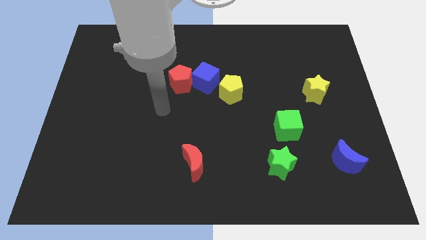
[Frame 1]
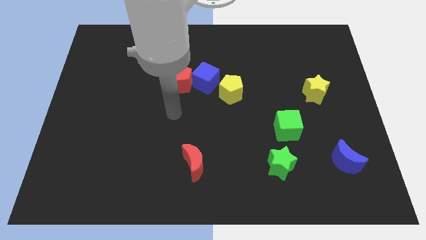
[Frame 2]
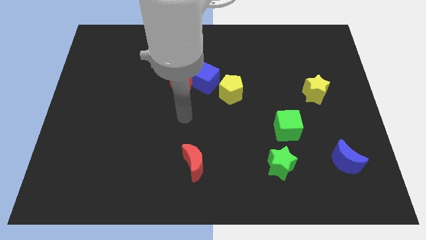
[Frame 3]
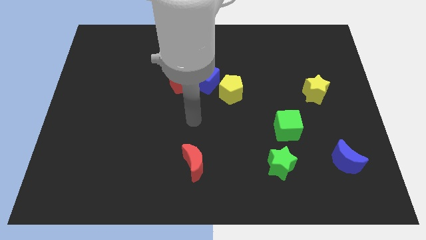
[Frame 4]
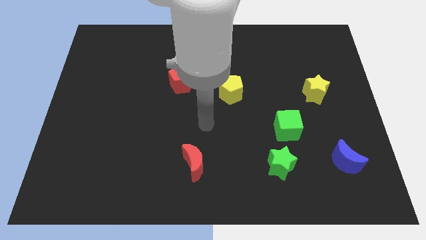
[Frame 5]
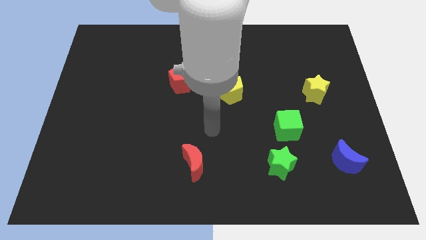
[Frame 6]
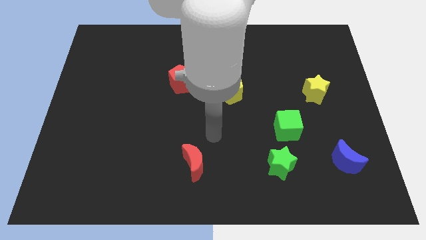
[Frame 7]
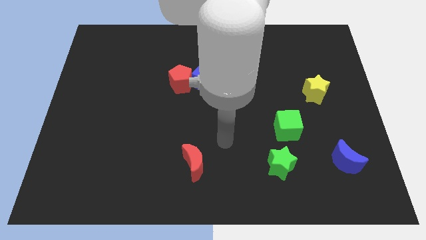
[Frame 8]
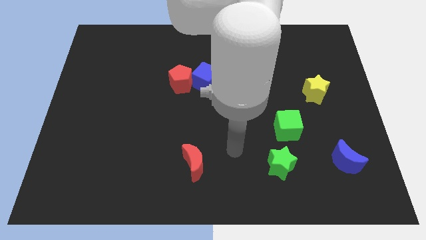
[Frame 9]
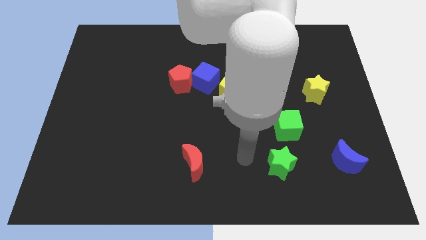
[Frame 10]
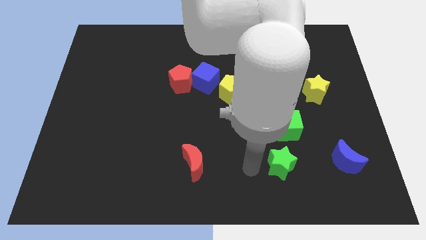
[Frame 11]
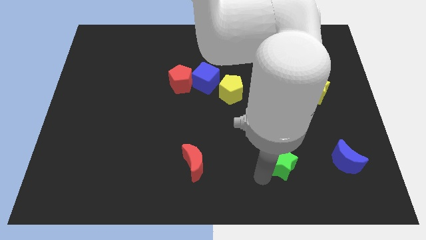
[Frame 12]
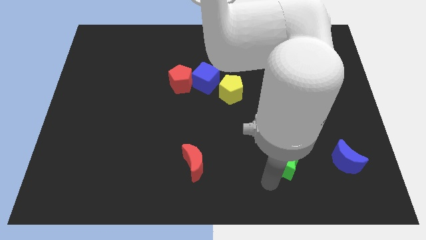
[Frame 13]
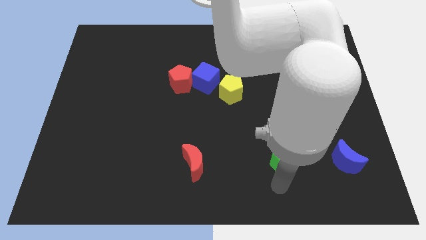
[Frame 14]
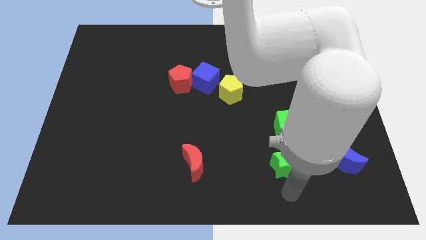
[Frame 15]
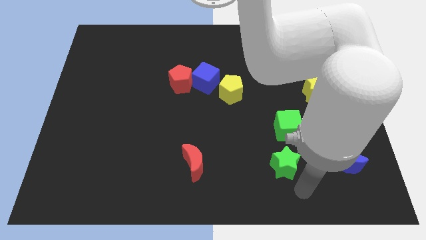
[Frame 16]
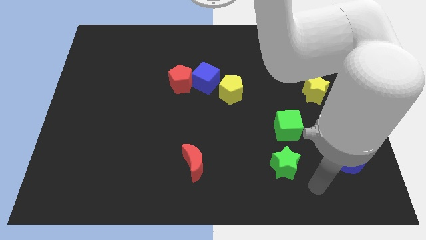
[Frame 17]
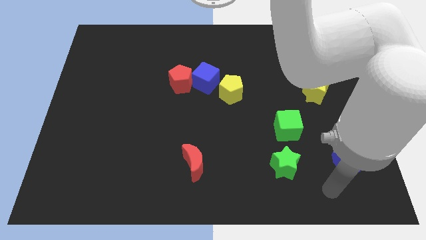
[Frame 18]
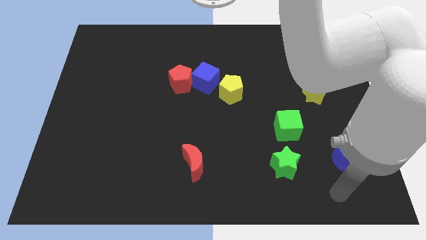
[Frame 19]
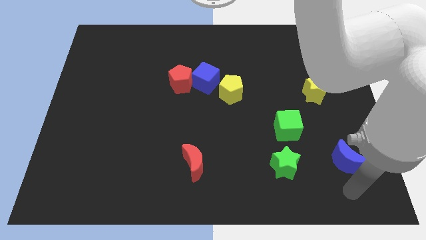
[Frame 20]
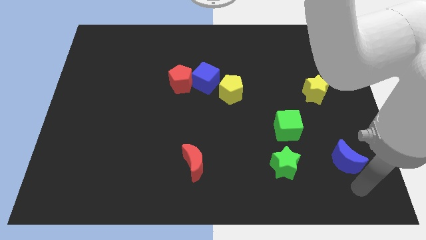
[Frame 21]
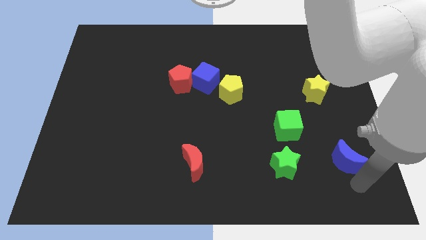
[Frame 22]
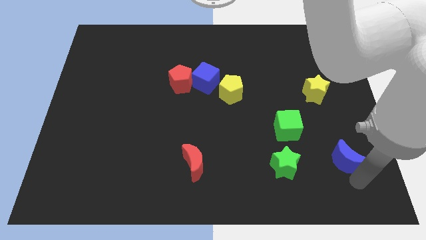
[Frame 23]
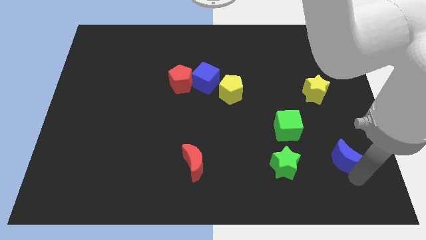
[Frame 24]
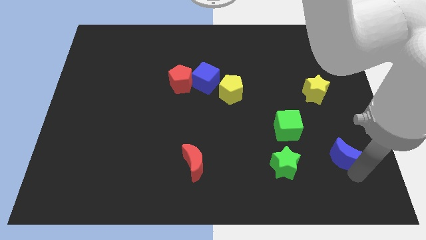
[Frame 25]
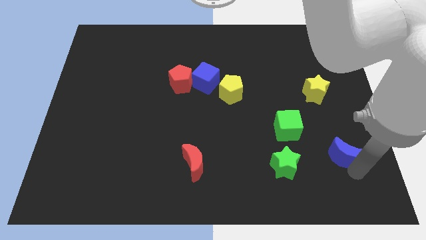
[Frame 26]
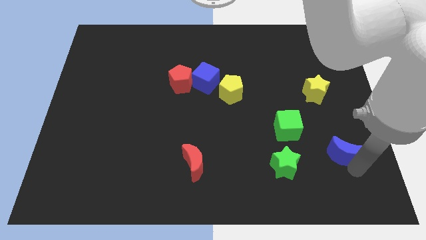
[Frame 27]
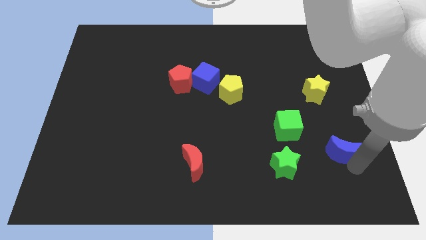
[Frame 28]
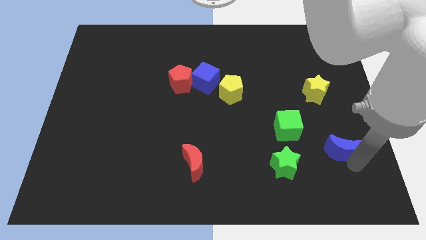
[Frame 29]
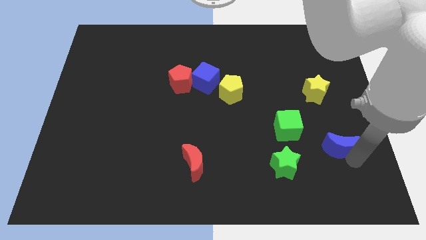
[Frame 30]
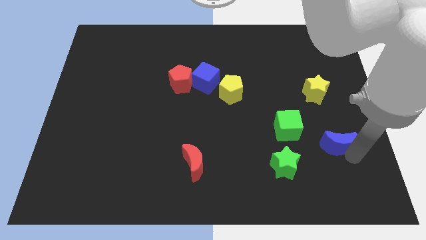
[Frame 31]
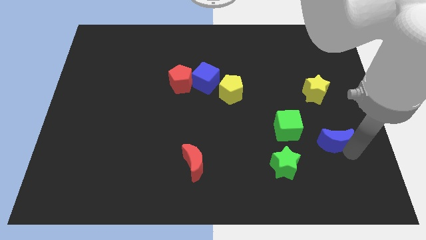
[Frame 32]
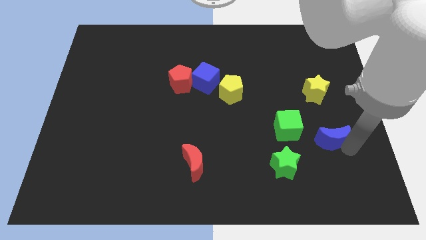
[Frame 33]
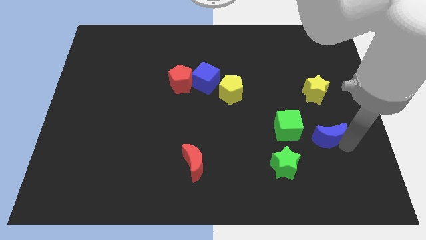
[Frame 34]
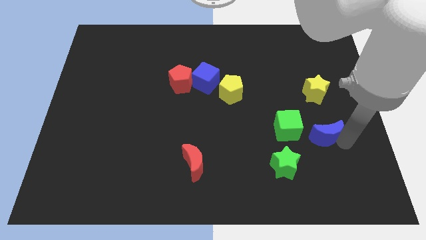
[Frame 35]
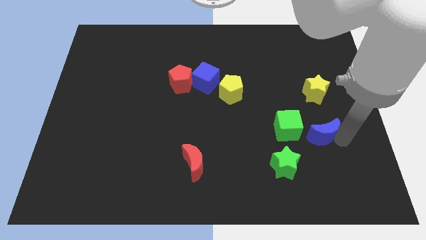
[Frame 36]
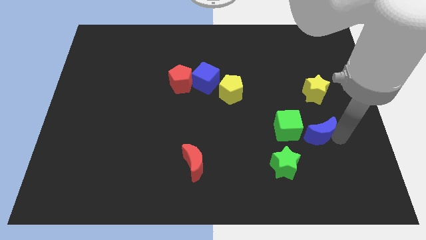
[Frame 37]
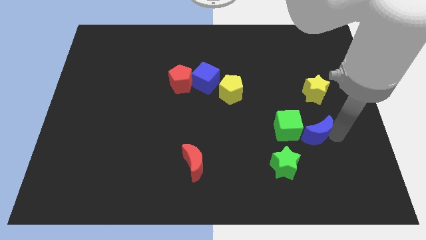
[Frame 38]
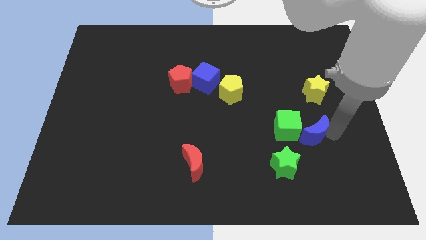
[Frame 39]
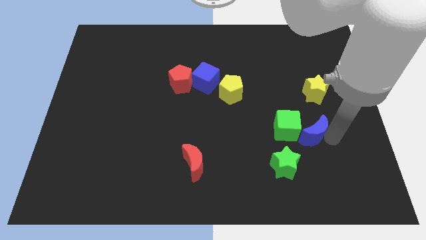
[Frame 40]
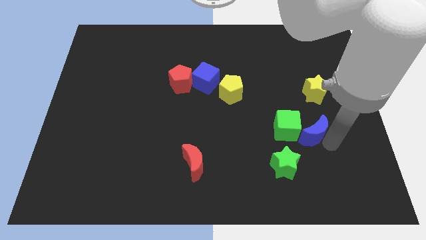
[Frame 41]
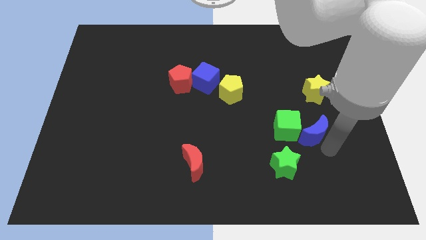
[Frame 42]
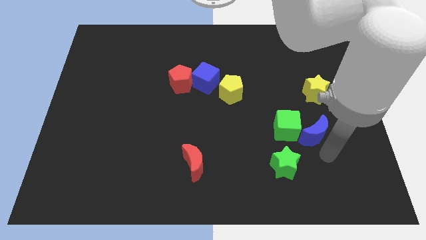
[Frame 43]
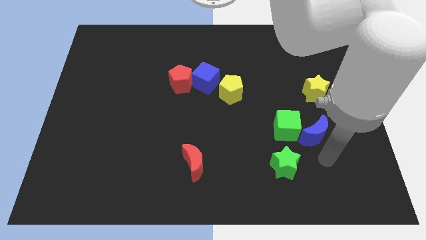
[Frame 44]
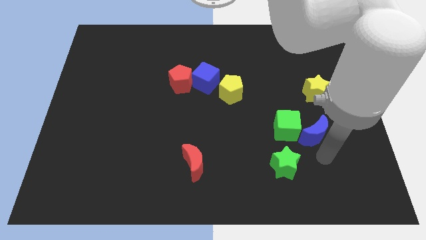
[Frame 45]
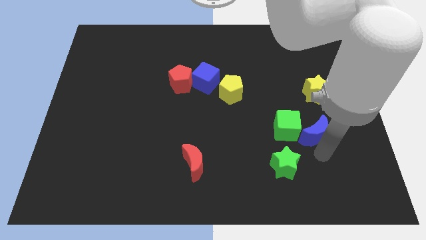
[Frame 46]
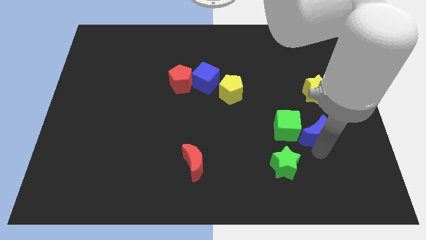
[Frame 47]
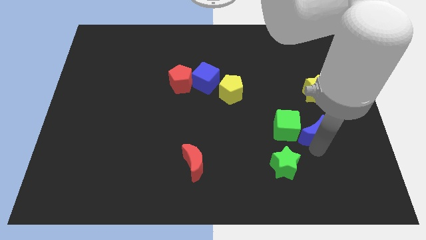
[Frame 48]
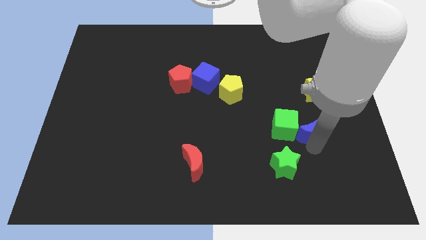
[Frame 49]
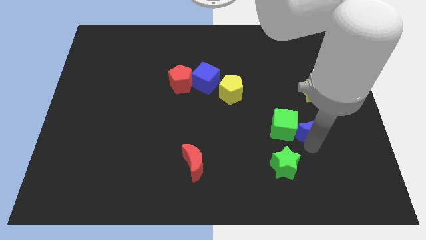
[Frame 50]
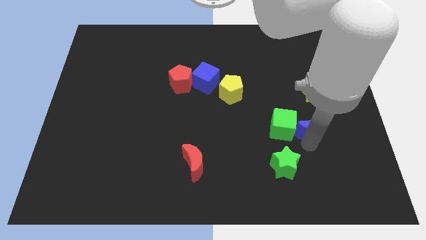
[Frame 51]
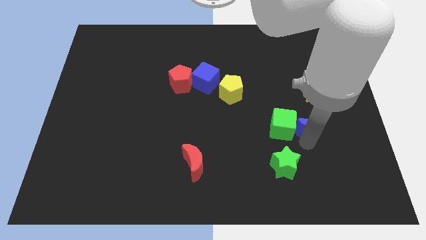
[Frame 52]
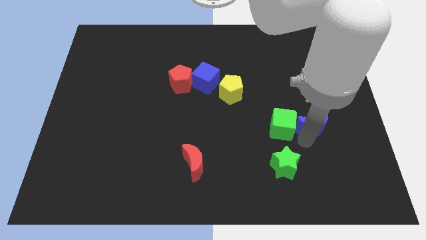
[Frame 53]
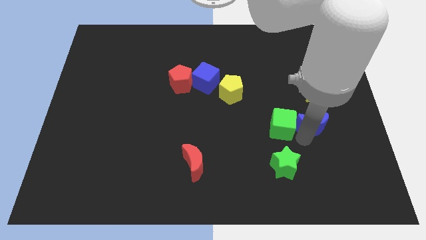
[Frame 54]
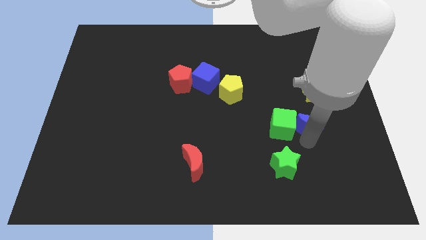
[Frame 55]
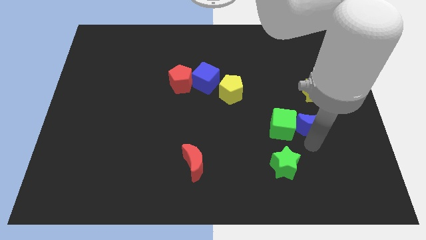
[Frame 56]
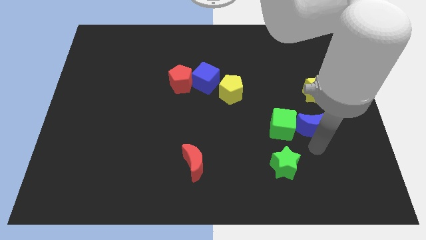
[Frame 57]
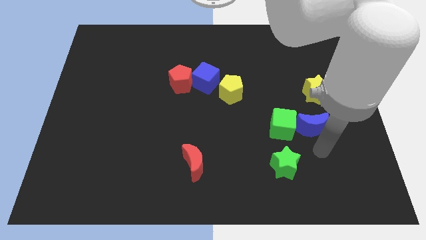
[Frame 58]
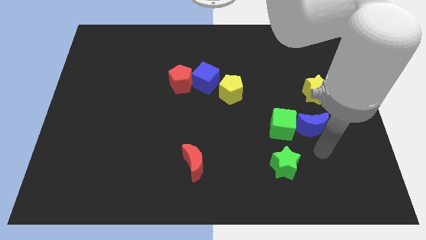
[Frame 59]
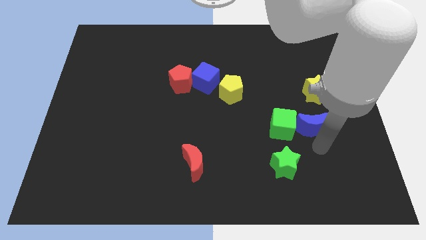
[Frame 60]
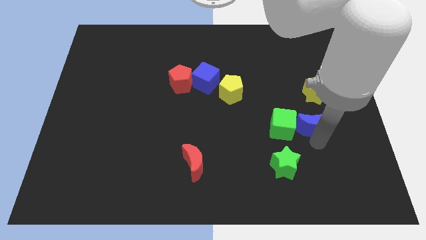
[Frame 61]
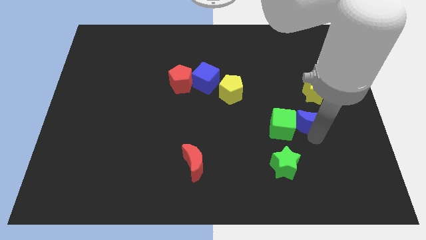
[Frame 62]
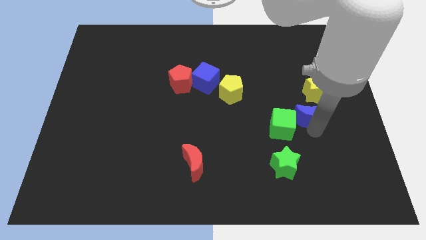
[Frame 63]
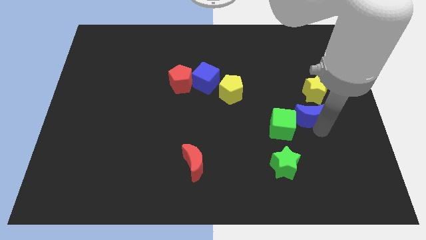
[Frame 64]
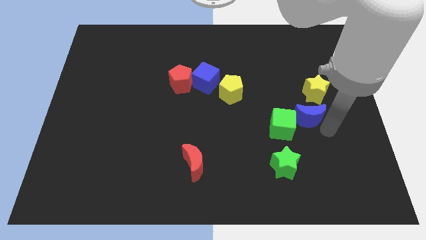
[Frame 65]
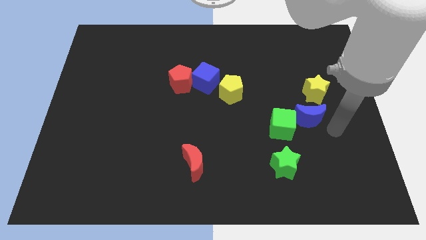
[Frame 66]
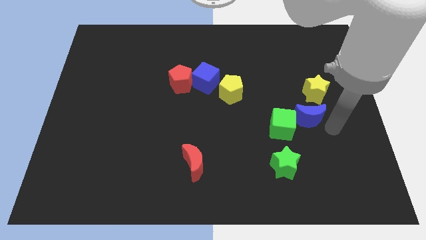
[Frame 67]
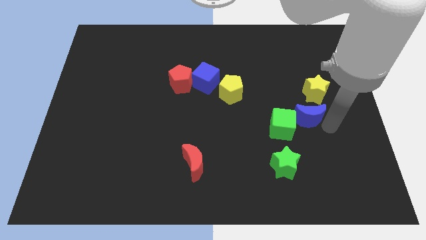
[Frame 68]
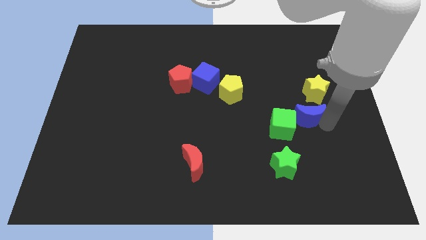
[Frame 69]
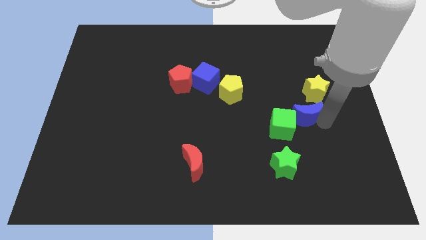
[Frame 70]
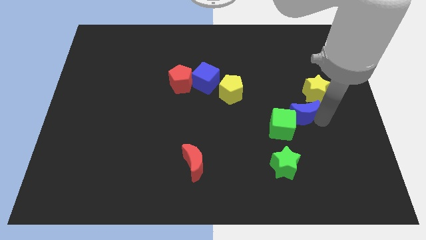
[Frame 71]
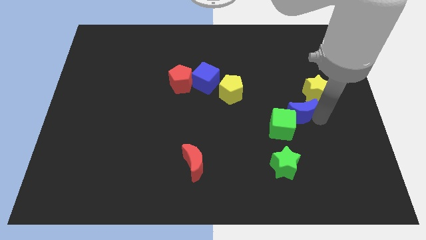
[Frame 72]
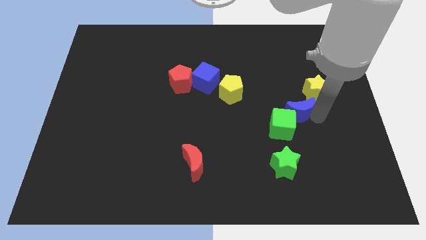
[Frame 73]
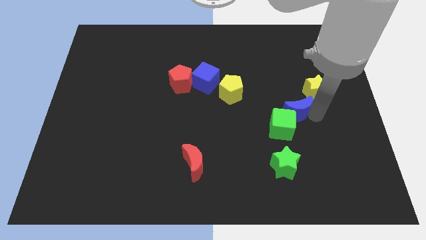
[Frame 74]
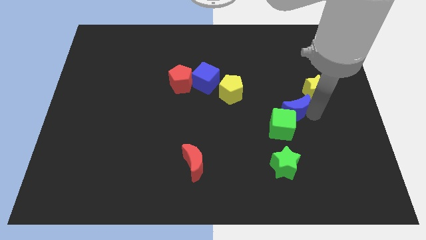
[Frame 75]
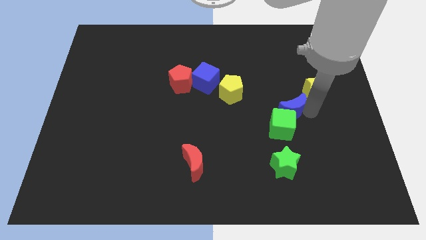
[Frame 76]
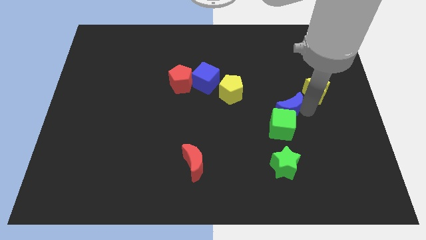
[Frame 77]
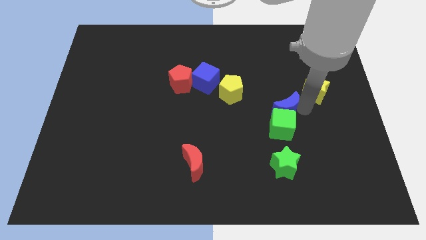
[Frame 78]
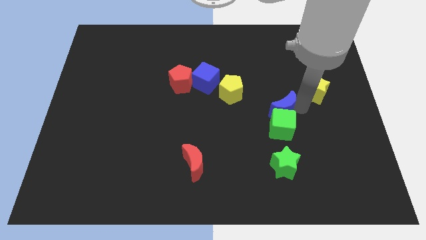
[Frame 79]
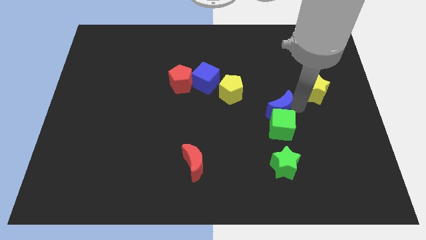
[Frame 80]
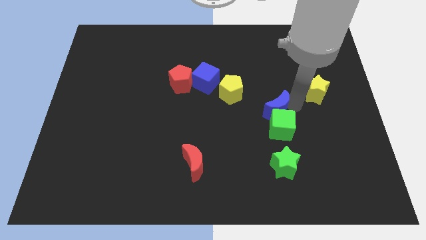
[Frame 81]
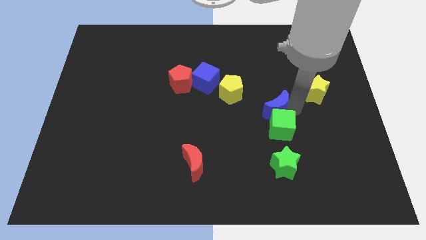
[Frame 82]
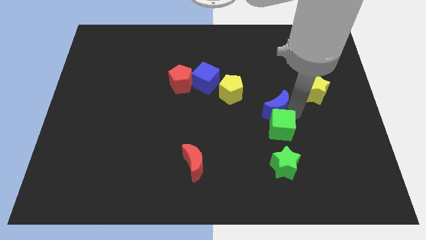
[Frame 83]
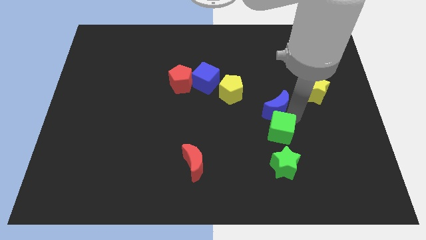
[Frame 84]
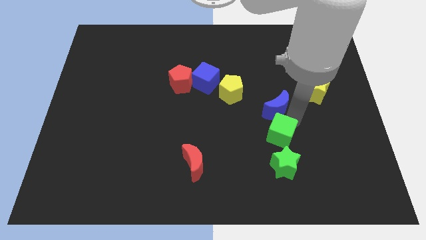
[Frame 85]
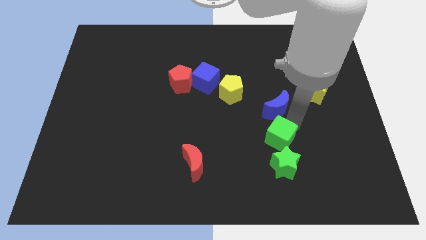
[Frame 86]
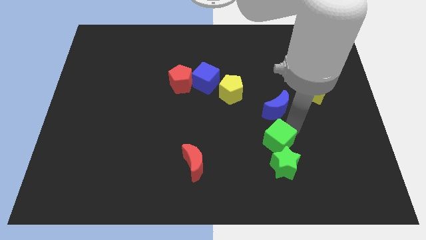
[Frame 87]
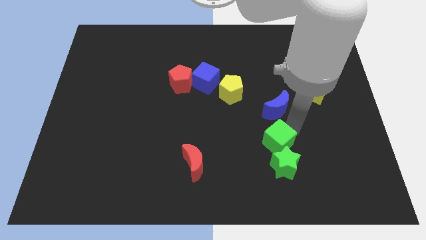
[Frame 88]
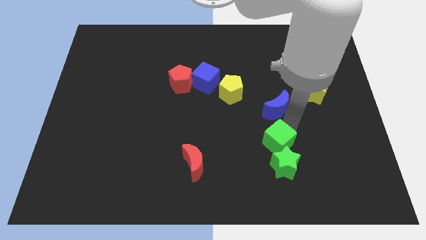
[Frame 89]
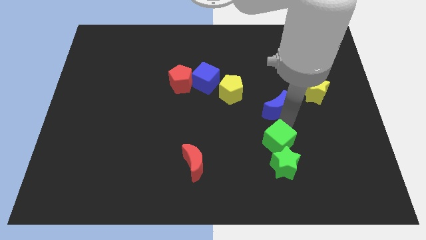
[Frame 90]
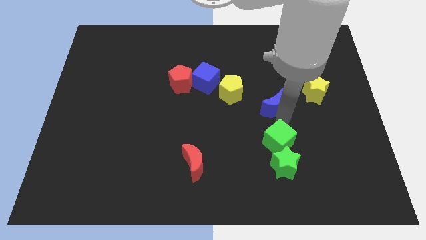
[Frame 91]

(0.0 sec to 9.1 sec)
slide the blue moon diagonally upwards and left
